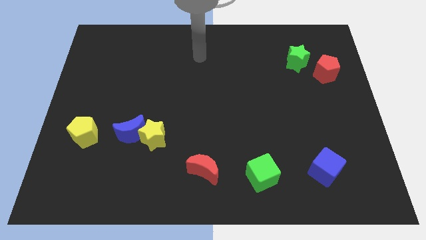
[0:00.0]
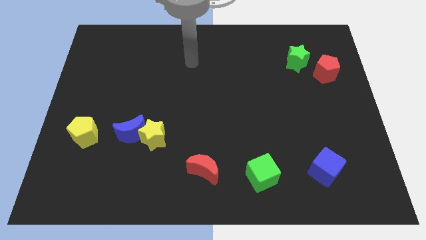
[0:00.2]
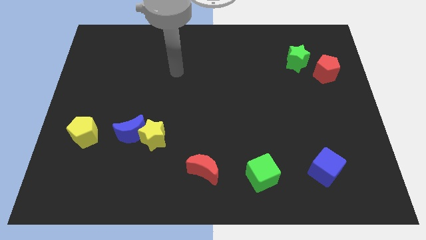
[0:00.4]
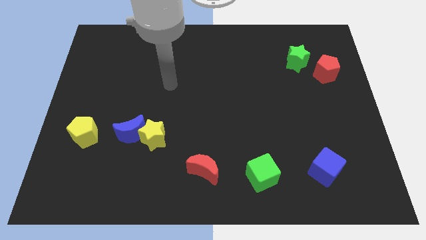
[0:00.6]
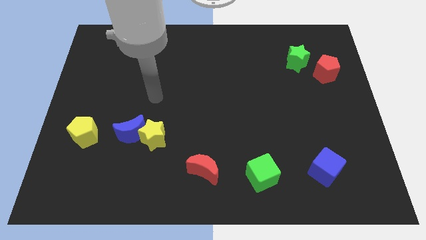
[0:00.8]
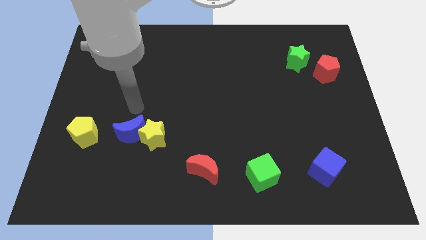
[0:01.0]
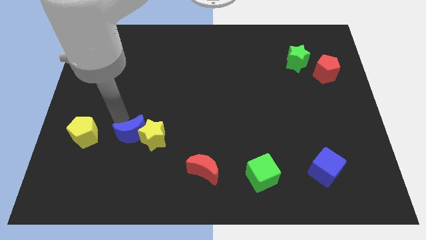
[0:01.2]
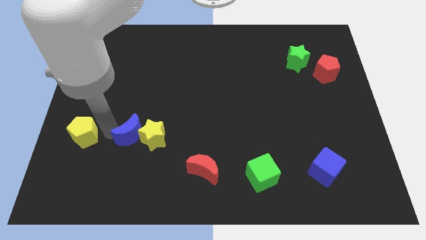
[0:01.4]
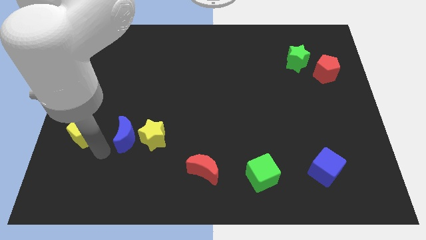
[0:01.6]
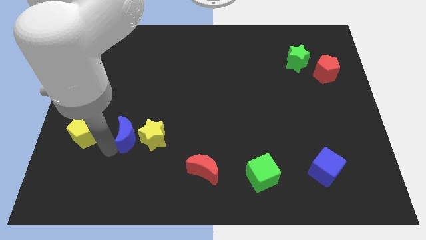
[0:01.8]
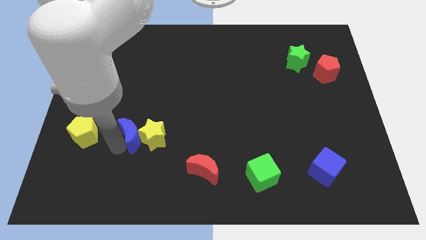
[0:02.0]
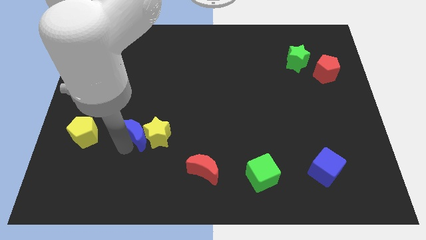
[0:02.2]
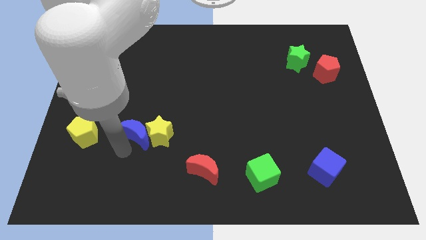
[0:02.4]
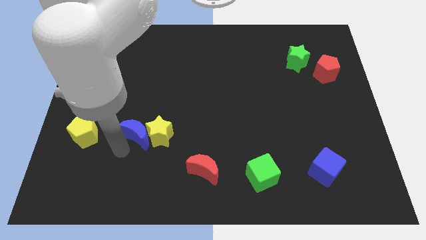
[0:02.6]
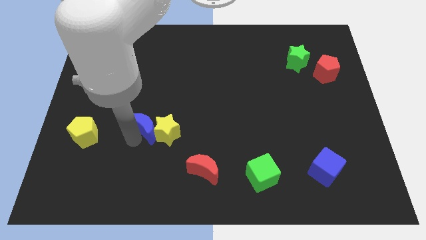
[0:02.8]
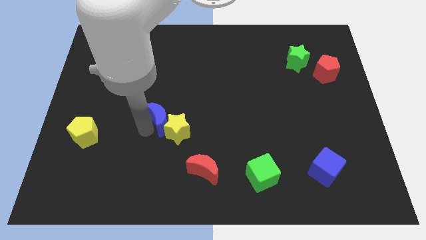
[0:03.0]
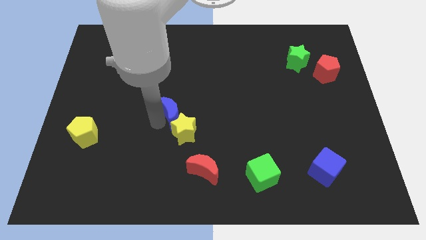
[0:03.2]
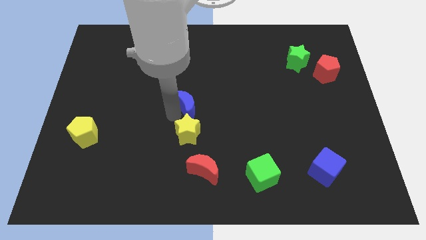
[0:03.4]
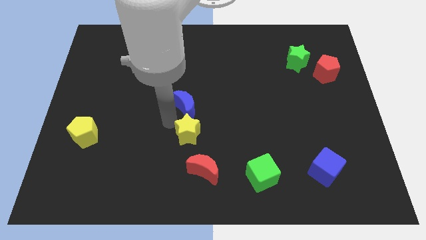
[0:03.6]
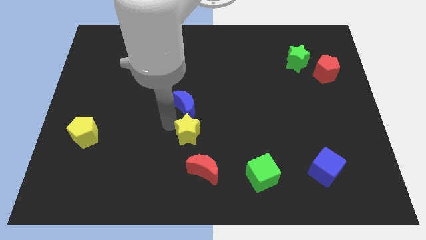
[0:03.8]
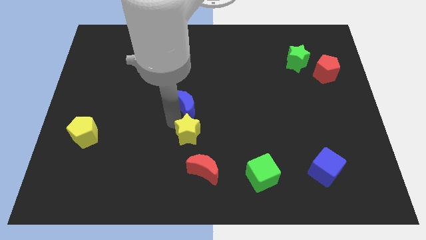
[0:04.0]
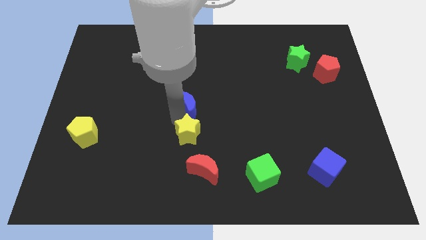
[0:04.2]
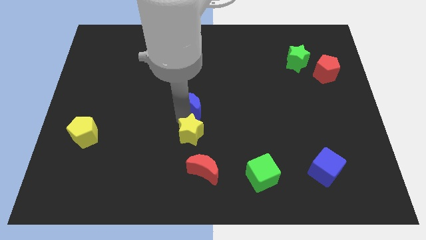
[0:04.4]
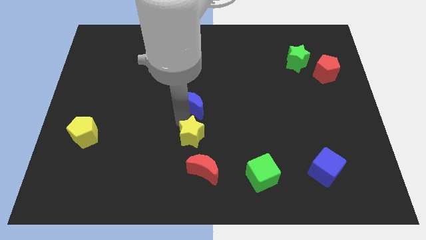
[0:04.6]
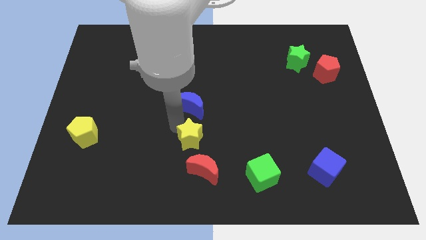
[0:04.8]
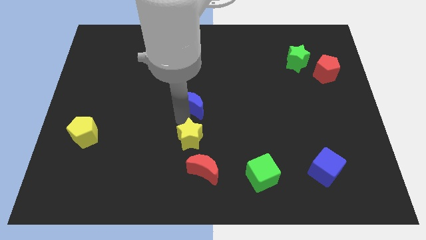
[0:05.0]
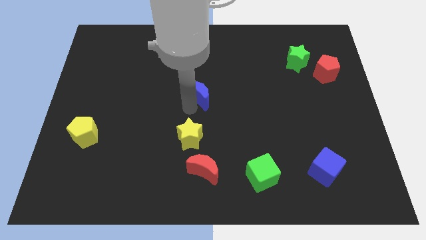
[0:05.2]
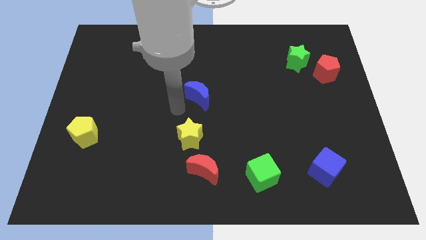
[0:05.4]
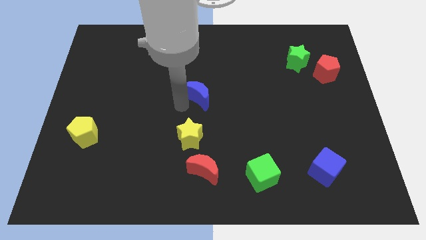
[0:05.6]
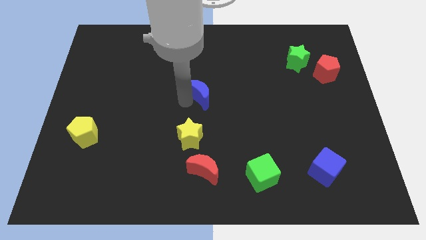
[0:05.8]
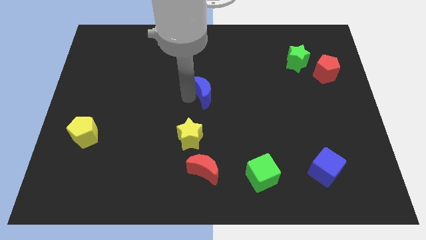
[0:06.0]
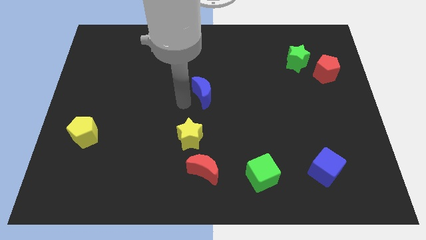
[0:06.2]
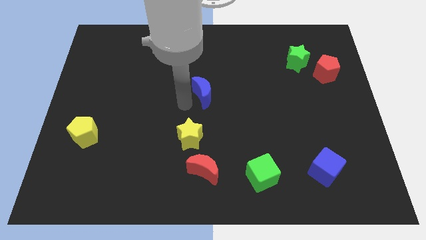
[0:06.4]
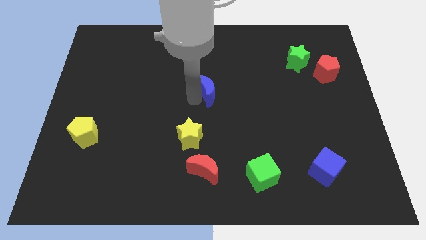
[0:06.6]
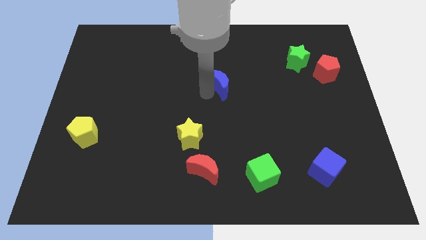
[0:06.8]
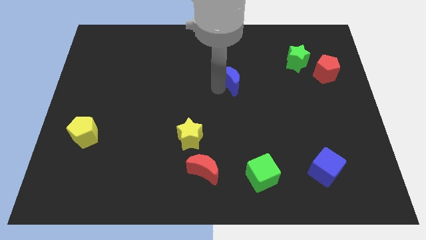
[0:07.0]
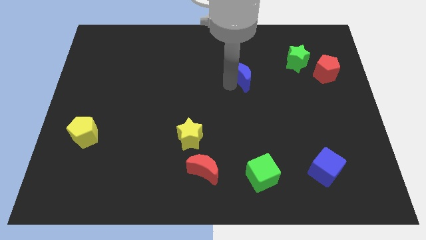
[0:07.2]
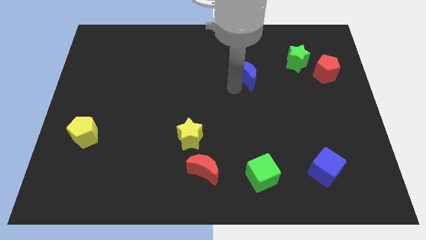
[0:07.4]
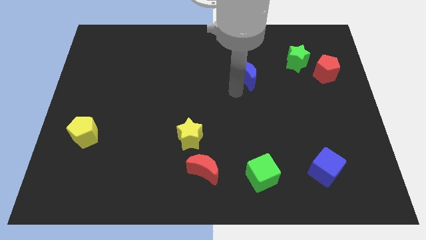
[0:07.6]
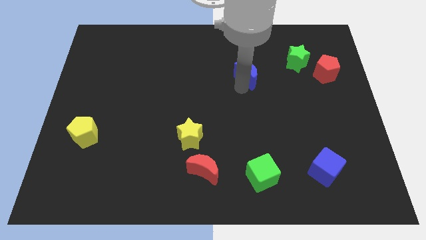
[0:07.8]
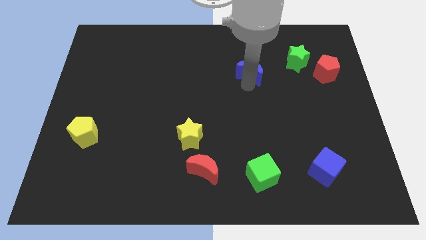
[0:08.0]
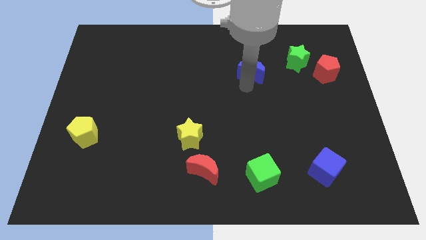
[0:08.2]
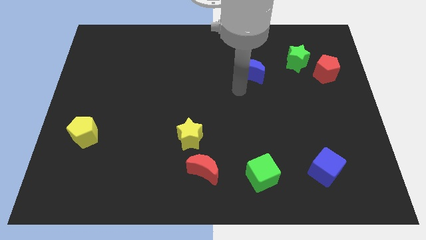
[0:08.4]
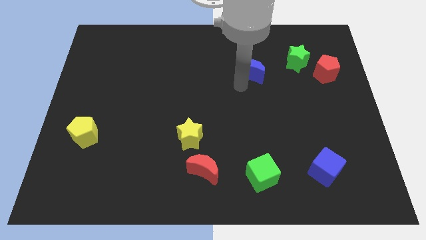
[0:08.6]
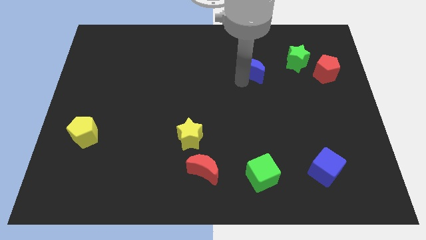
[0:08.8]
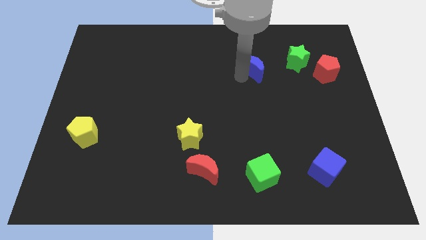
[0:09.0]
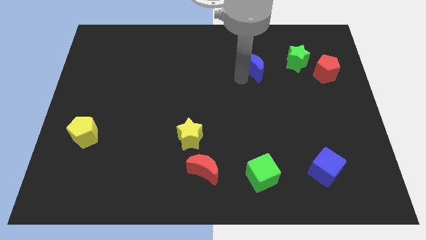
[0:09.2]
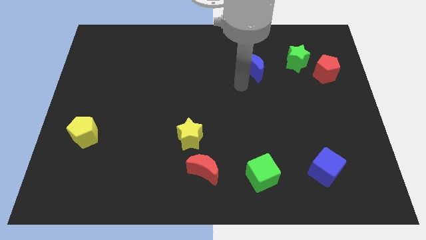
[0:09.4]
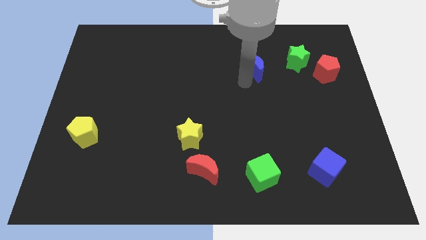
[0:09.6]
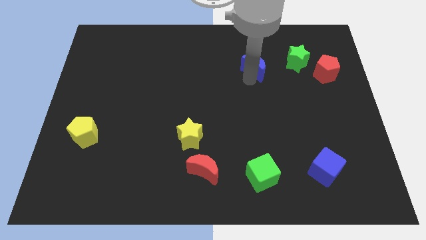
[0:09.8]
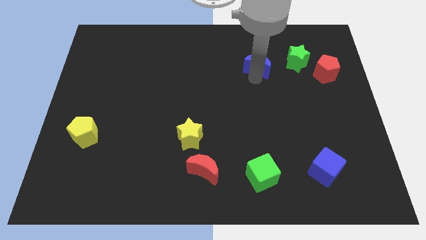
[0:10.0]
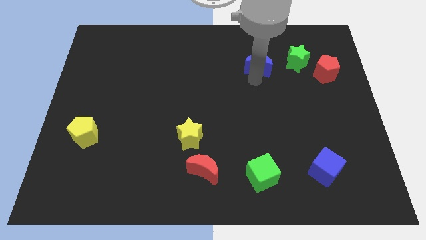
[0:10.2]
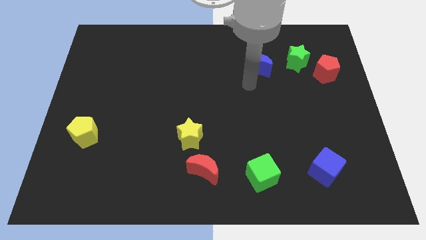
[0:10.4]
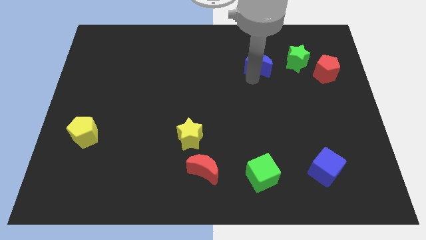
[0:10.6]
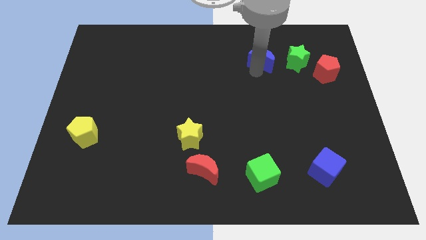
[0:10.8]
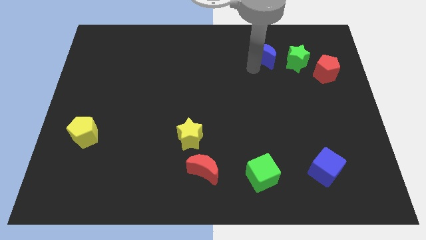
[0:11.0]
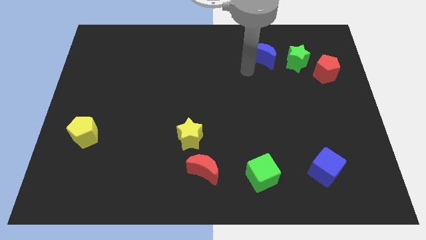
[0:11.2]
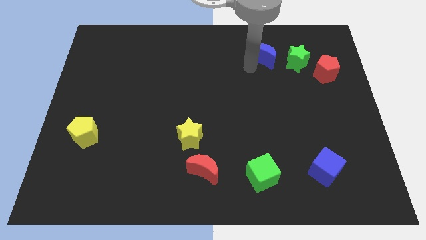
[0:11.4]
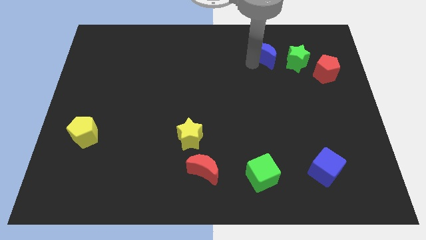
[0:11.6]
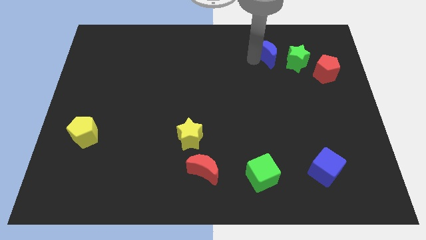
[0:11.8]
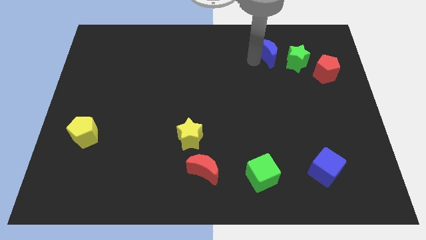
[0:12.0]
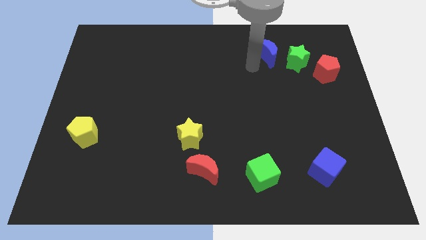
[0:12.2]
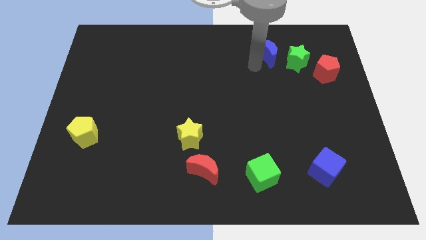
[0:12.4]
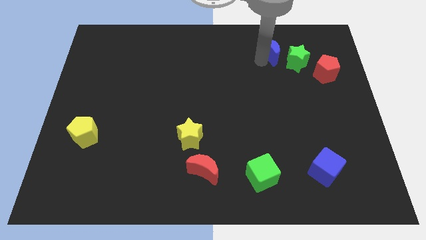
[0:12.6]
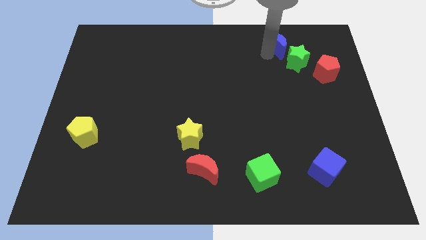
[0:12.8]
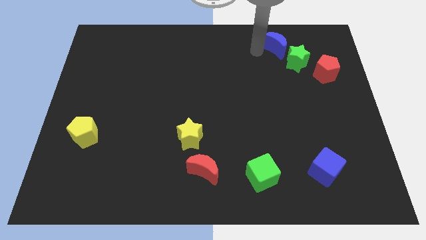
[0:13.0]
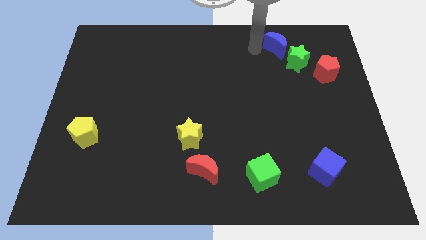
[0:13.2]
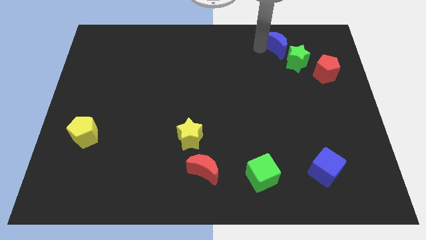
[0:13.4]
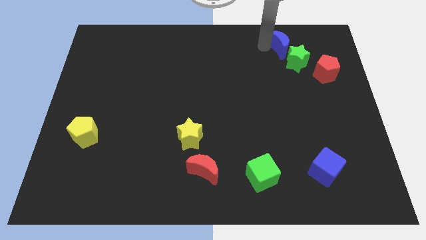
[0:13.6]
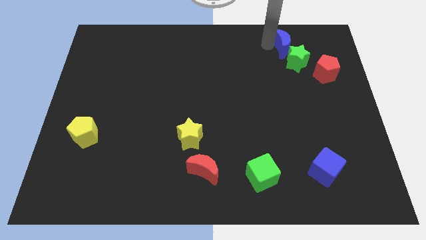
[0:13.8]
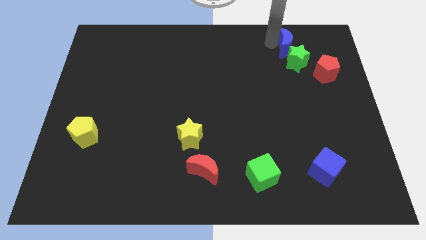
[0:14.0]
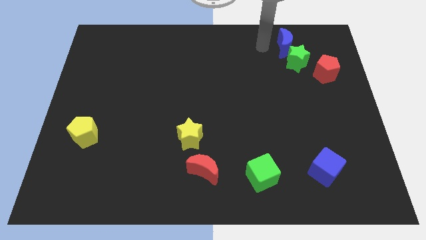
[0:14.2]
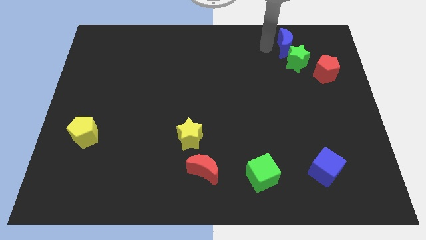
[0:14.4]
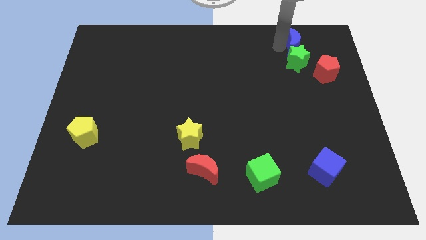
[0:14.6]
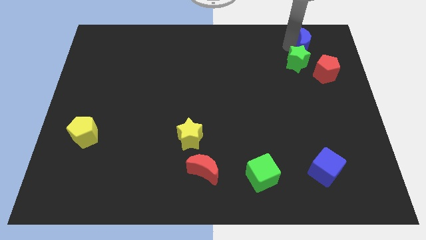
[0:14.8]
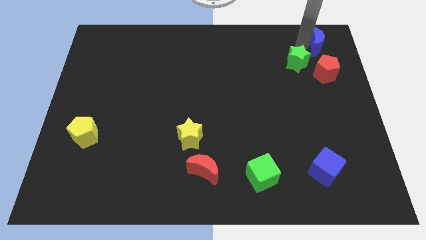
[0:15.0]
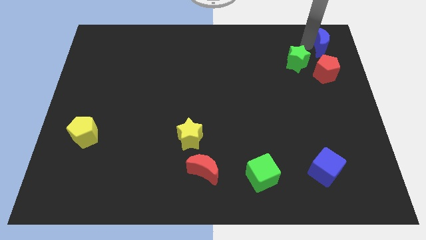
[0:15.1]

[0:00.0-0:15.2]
put the blue moon to the upper right corner
